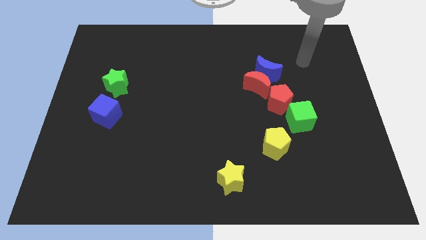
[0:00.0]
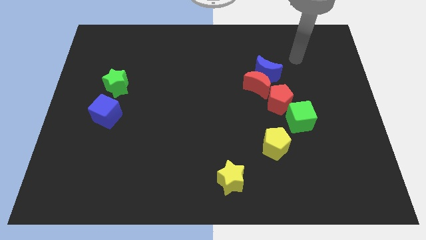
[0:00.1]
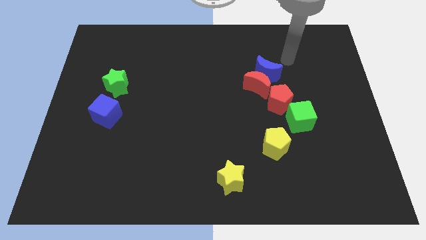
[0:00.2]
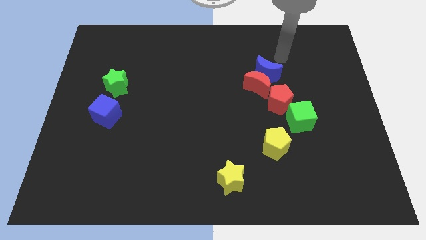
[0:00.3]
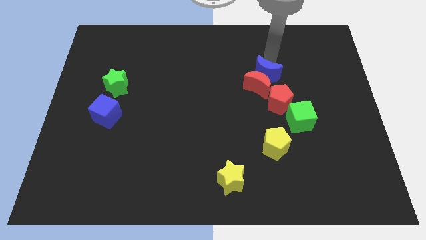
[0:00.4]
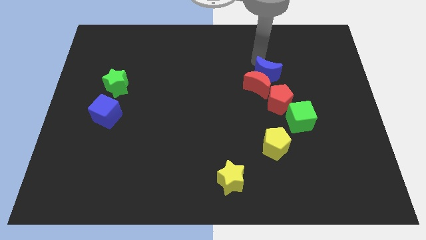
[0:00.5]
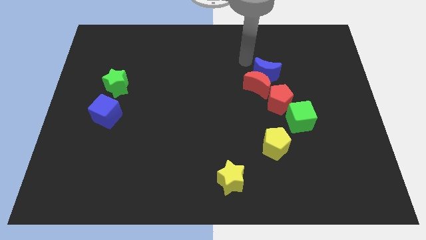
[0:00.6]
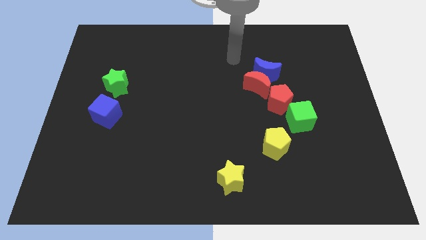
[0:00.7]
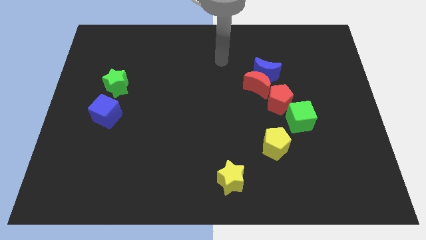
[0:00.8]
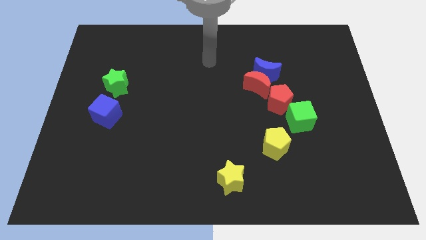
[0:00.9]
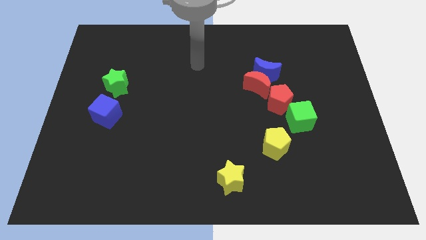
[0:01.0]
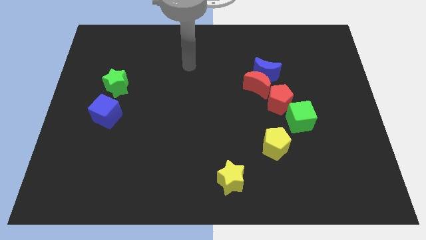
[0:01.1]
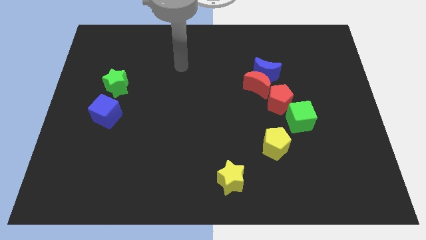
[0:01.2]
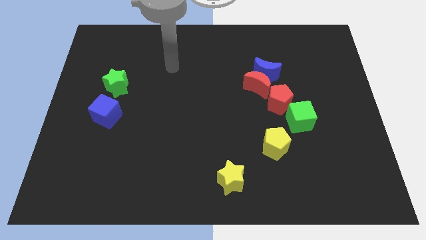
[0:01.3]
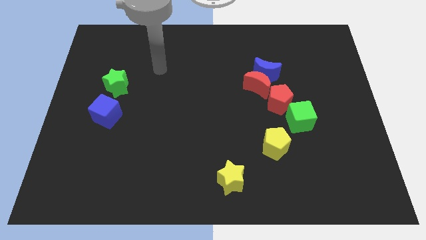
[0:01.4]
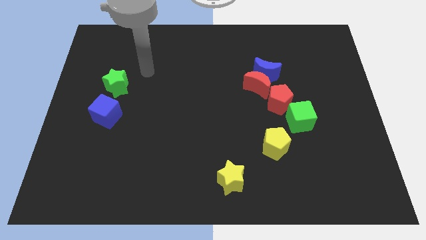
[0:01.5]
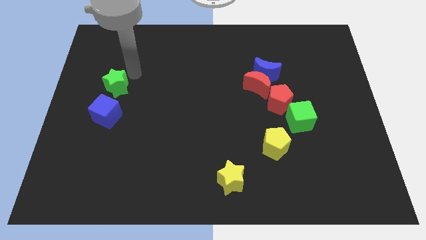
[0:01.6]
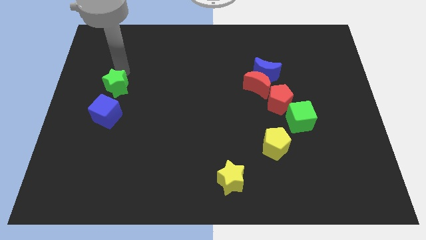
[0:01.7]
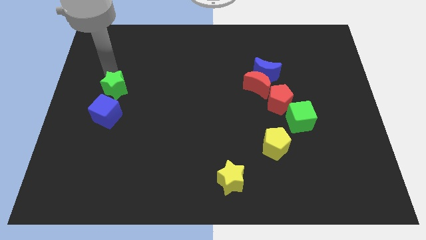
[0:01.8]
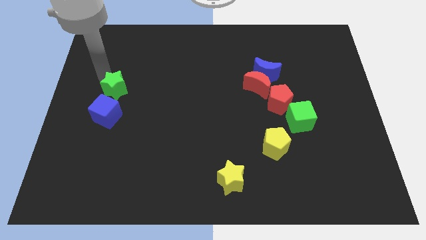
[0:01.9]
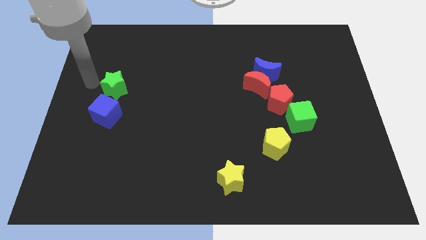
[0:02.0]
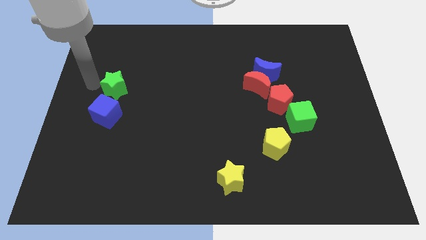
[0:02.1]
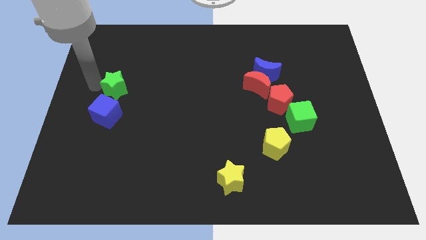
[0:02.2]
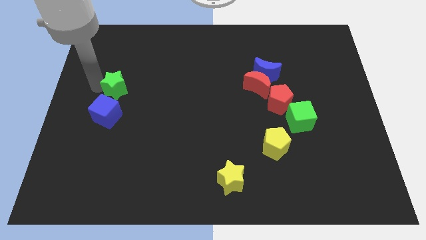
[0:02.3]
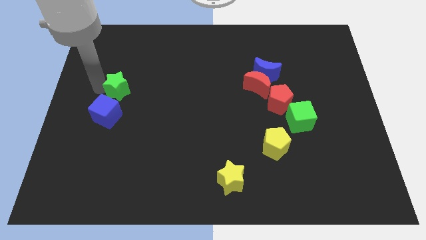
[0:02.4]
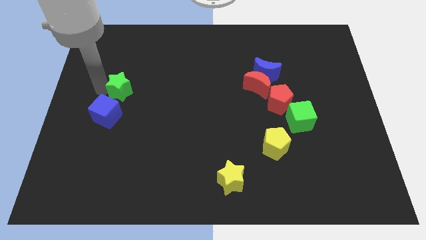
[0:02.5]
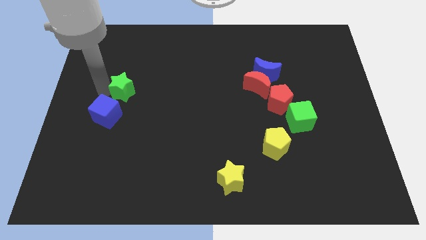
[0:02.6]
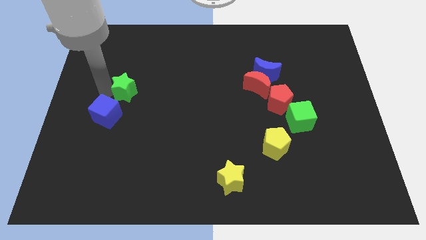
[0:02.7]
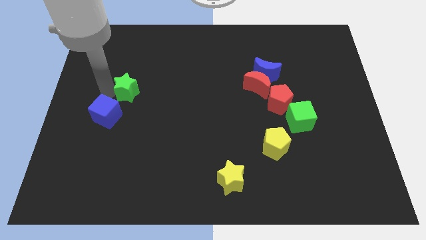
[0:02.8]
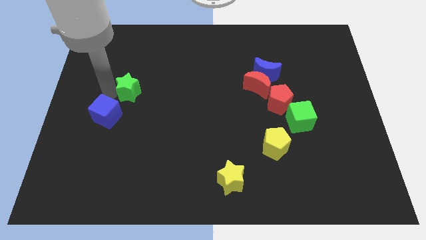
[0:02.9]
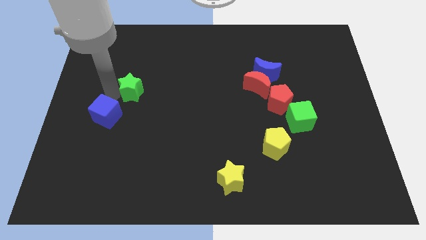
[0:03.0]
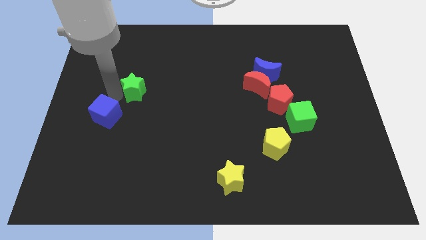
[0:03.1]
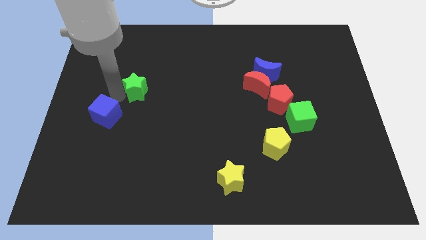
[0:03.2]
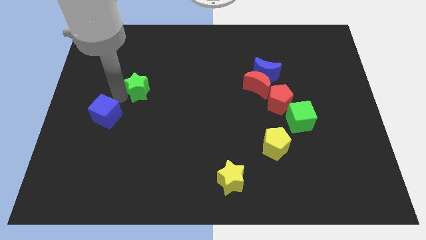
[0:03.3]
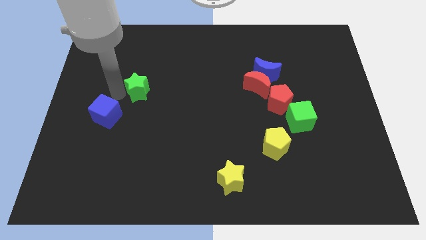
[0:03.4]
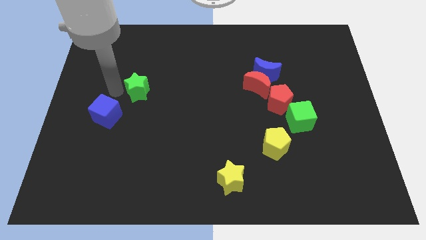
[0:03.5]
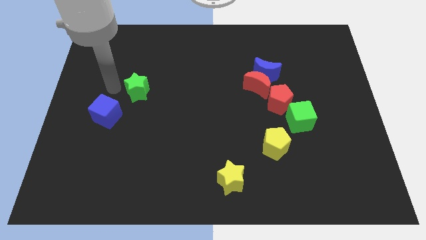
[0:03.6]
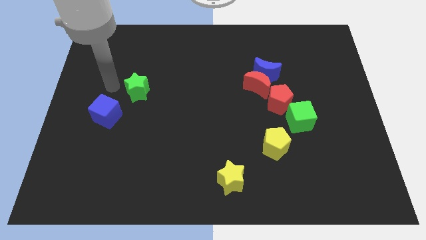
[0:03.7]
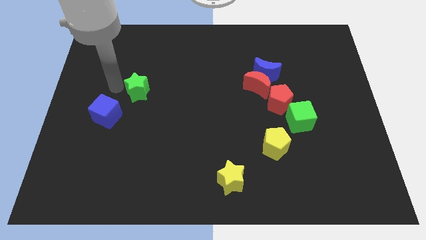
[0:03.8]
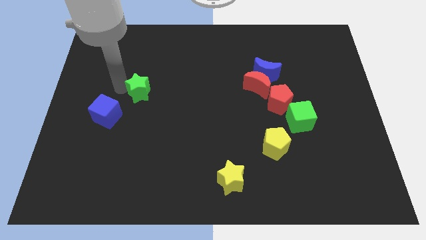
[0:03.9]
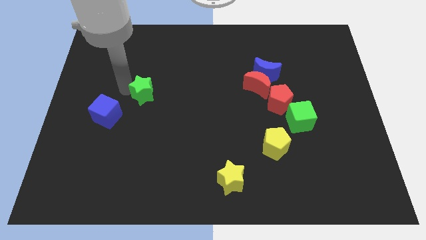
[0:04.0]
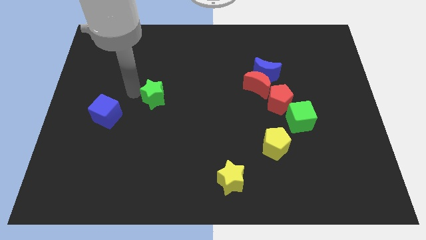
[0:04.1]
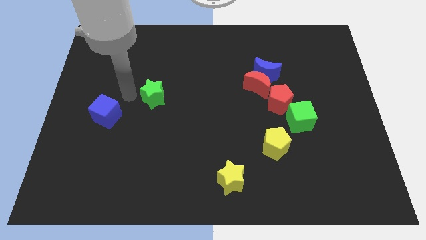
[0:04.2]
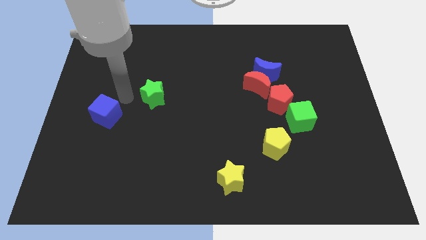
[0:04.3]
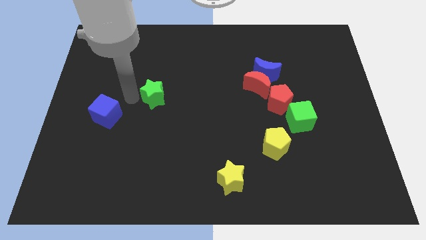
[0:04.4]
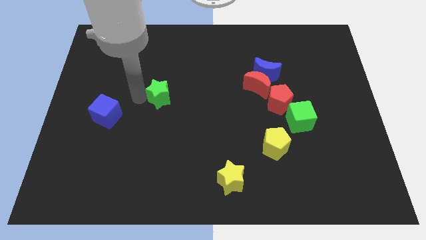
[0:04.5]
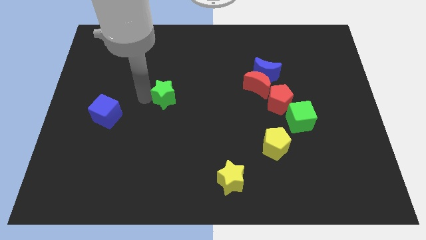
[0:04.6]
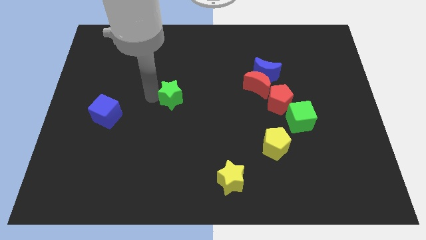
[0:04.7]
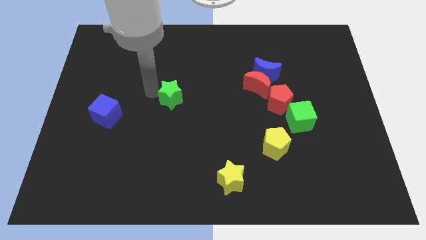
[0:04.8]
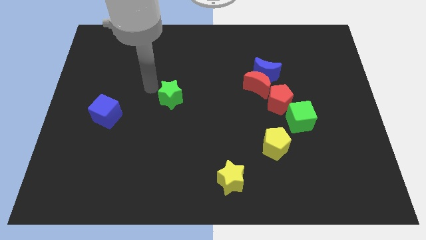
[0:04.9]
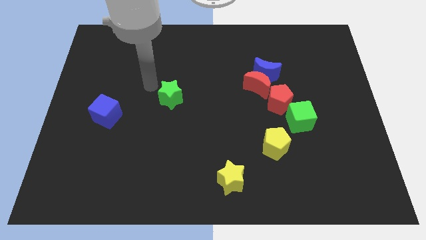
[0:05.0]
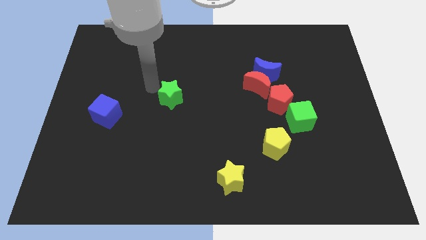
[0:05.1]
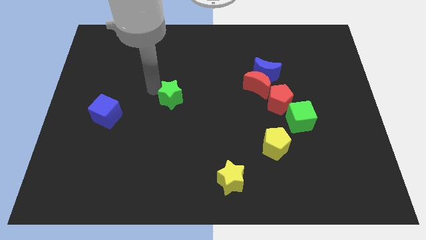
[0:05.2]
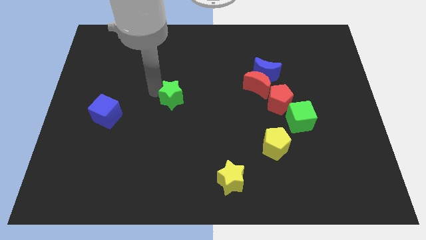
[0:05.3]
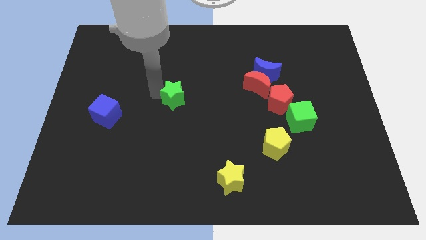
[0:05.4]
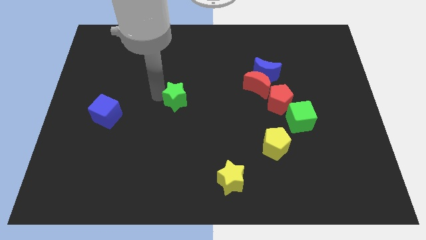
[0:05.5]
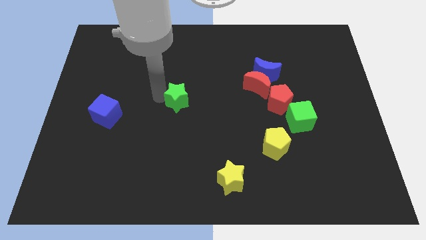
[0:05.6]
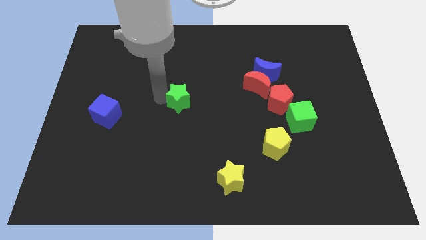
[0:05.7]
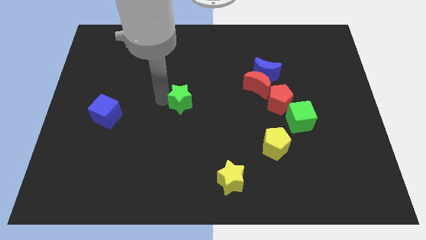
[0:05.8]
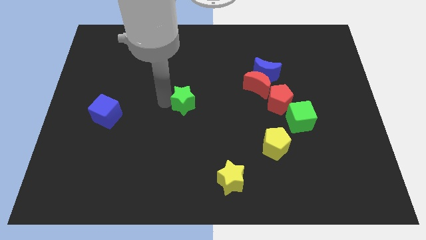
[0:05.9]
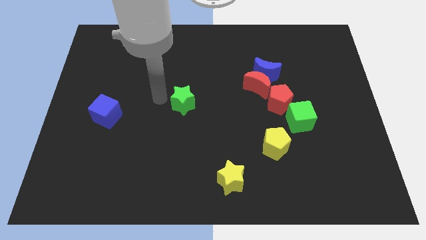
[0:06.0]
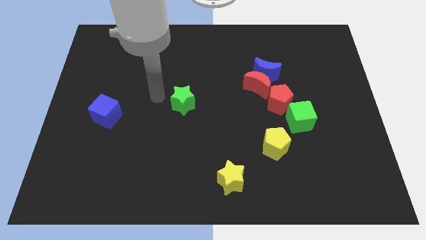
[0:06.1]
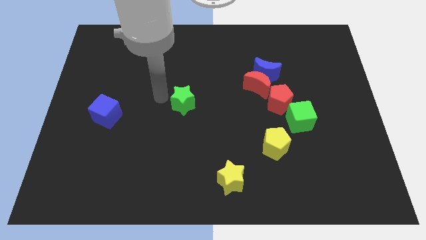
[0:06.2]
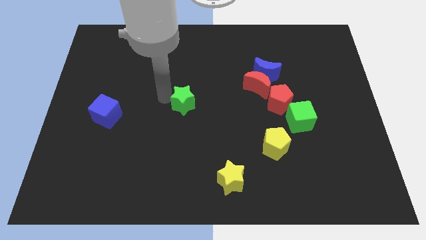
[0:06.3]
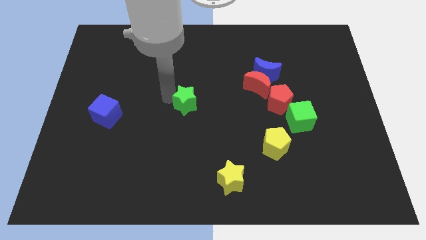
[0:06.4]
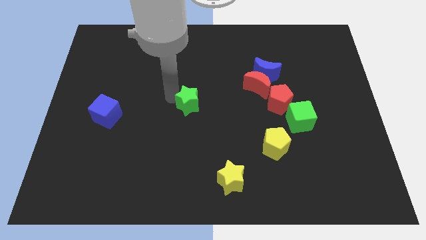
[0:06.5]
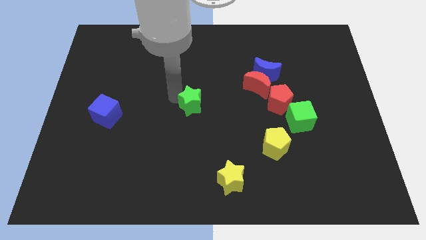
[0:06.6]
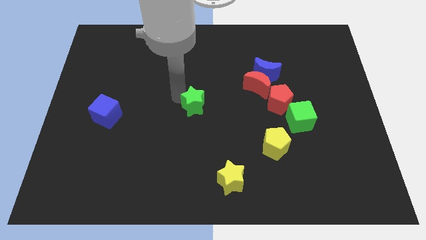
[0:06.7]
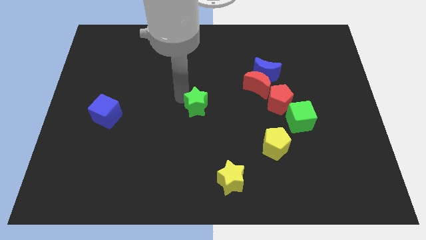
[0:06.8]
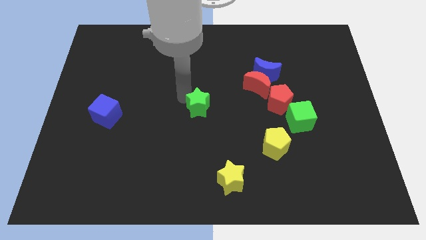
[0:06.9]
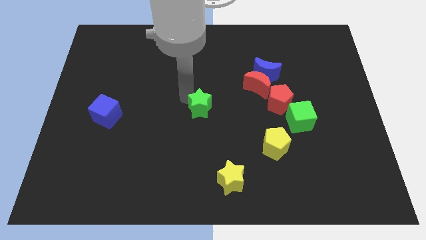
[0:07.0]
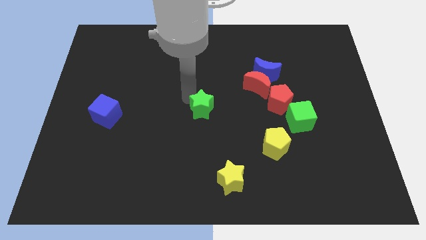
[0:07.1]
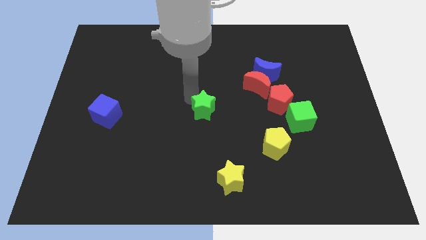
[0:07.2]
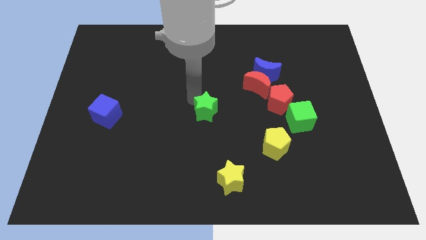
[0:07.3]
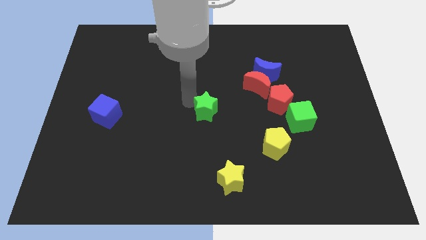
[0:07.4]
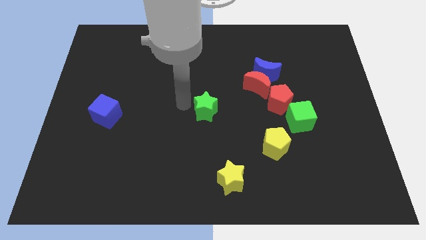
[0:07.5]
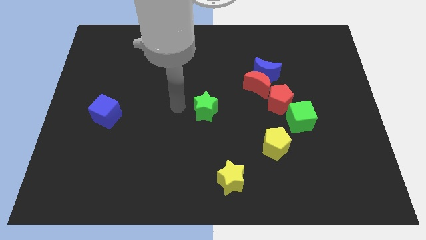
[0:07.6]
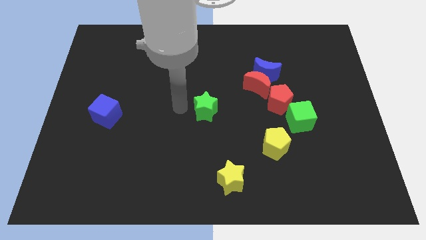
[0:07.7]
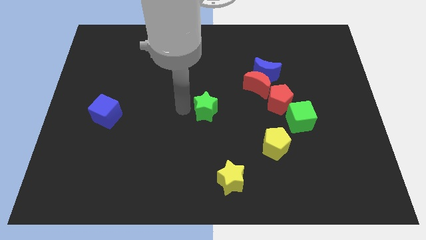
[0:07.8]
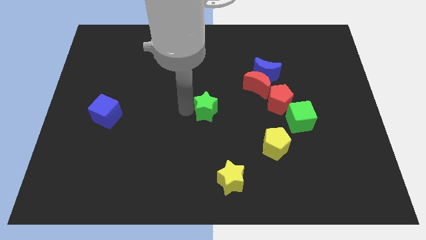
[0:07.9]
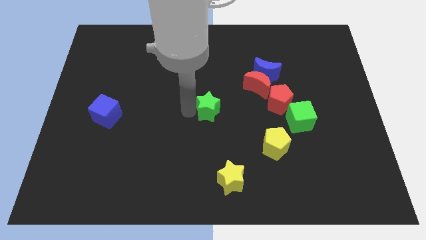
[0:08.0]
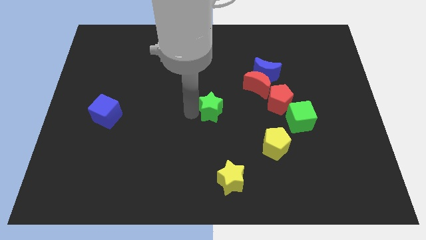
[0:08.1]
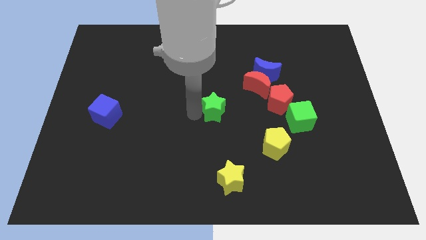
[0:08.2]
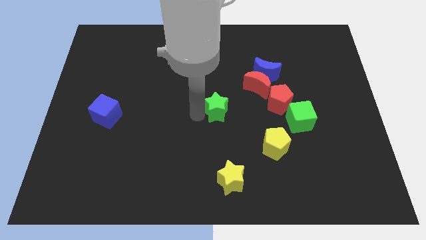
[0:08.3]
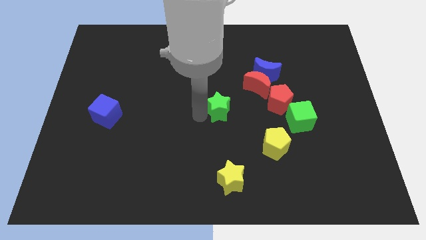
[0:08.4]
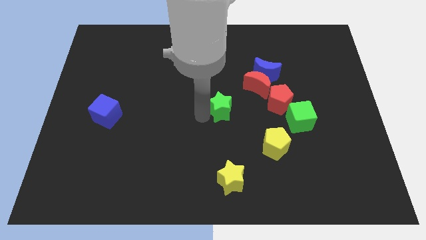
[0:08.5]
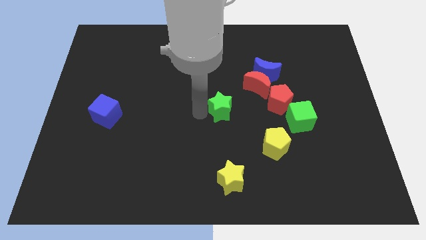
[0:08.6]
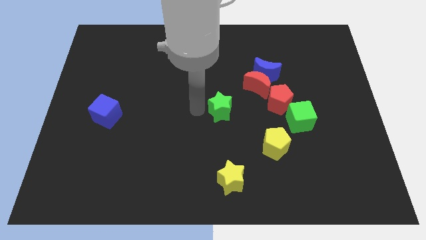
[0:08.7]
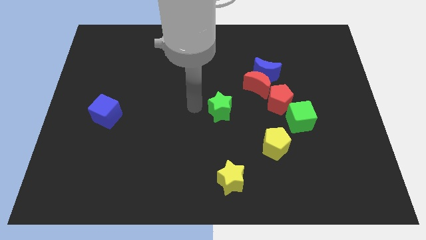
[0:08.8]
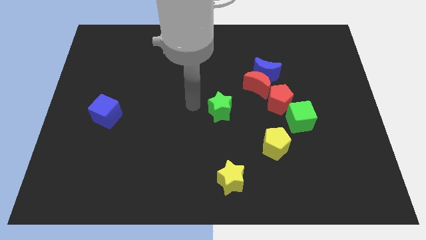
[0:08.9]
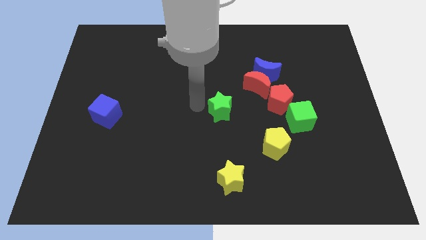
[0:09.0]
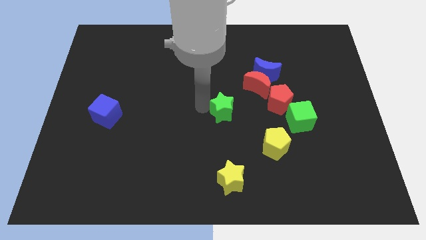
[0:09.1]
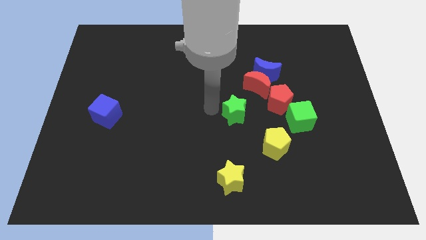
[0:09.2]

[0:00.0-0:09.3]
push the green star just left of the green cube
